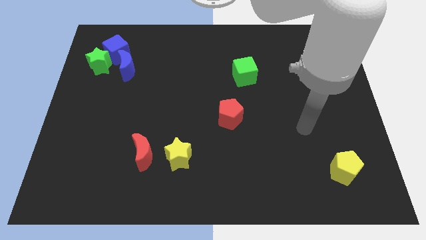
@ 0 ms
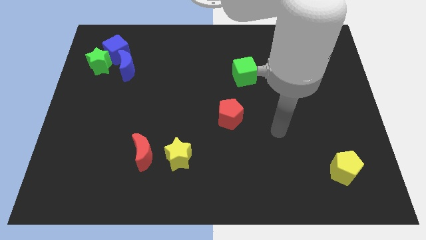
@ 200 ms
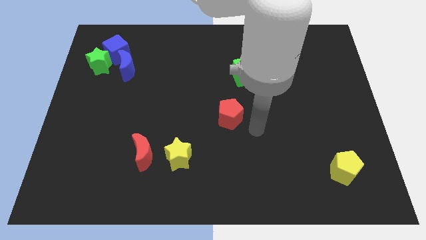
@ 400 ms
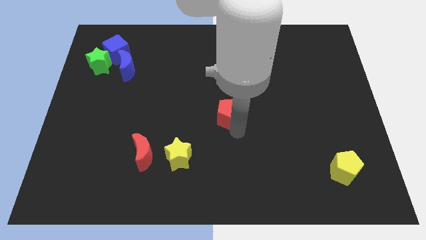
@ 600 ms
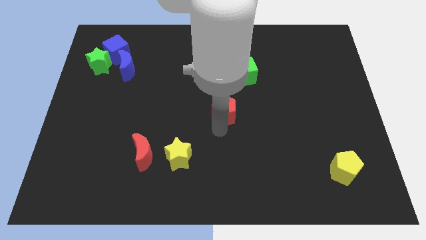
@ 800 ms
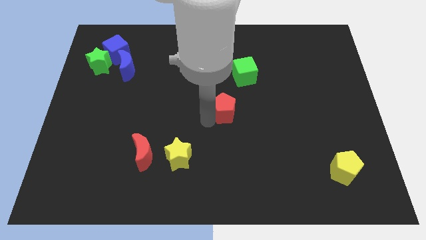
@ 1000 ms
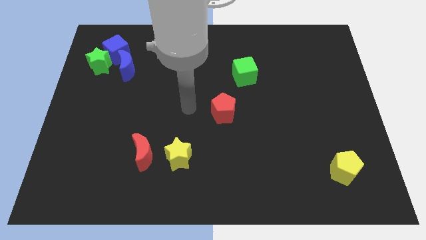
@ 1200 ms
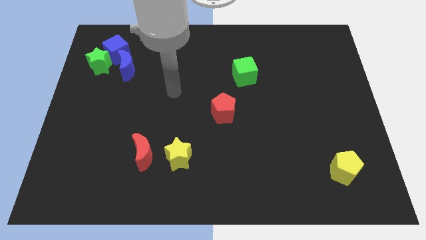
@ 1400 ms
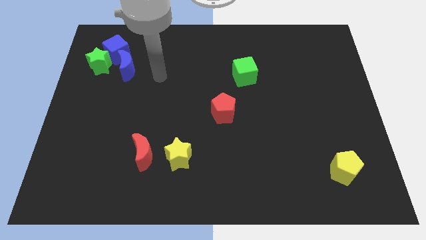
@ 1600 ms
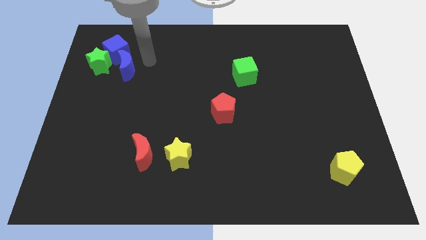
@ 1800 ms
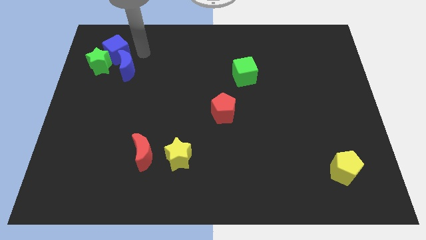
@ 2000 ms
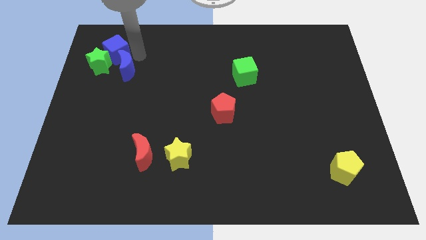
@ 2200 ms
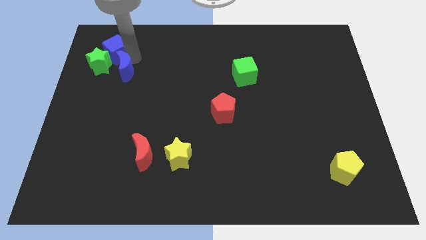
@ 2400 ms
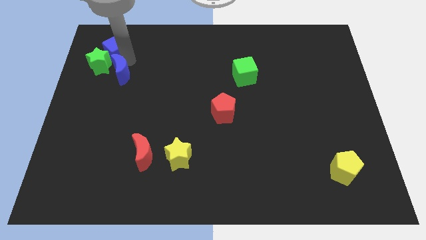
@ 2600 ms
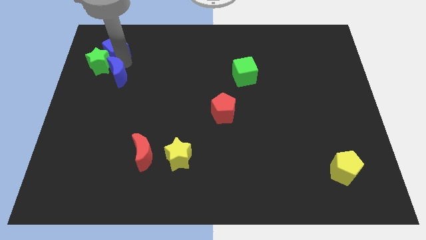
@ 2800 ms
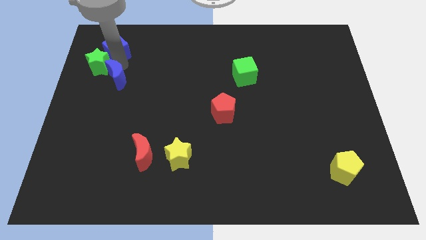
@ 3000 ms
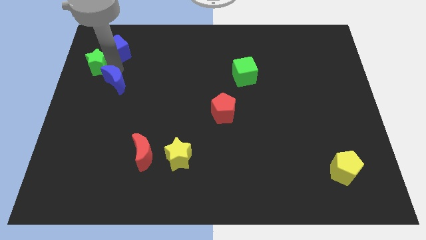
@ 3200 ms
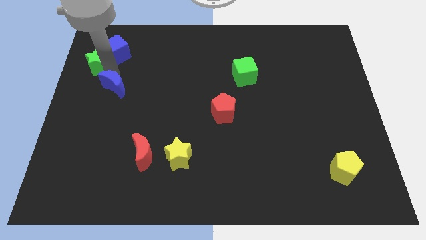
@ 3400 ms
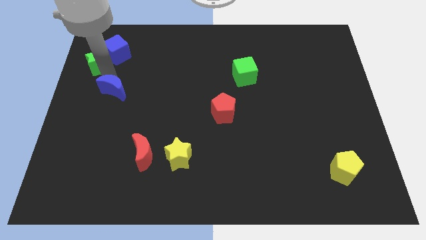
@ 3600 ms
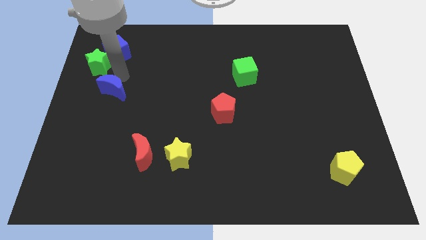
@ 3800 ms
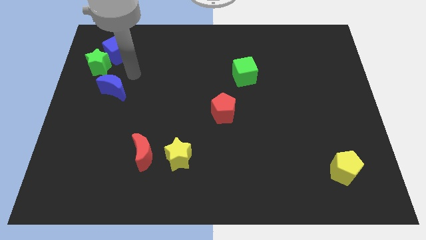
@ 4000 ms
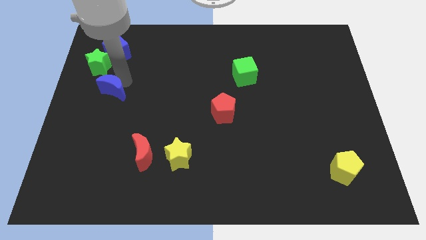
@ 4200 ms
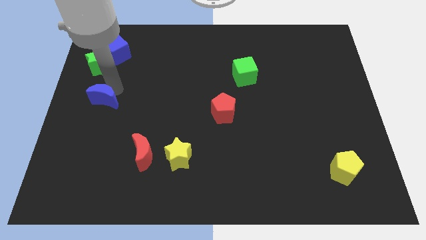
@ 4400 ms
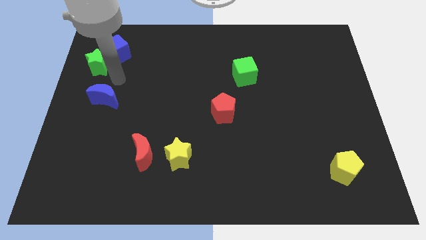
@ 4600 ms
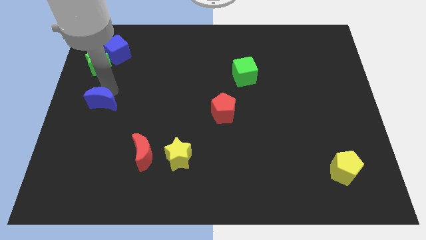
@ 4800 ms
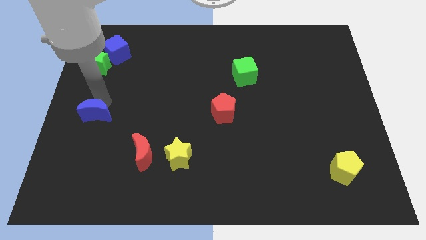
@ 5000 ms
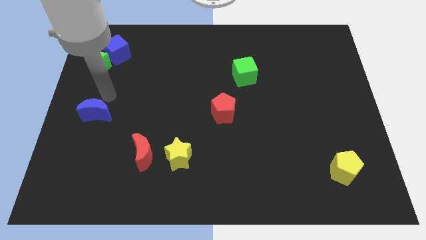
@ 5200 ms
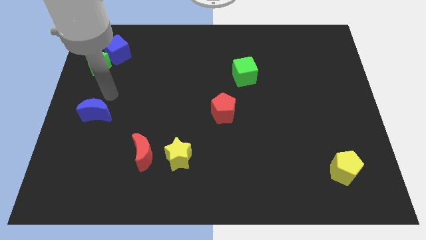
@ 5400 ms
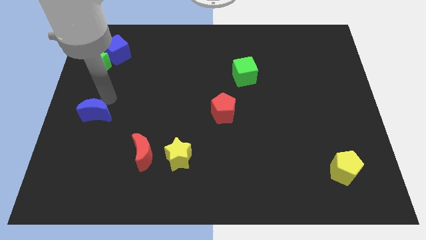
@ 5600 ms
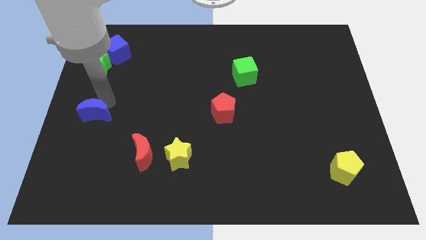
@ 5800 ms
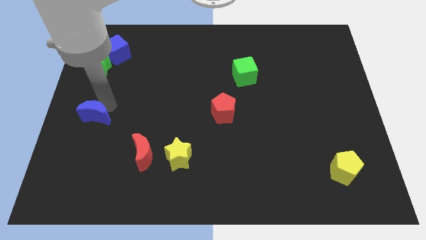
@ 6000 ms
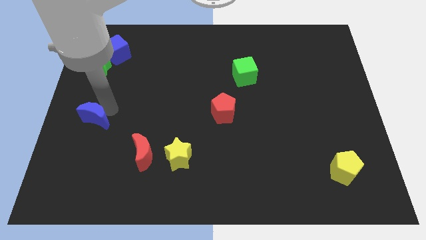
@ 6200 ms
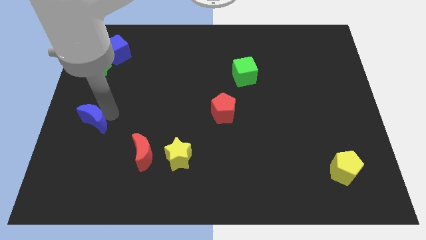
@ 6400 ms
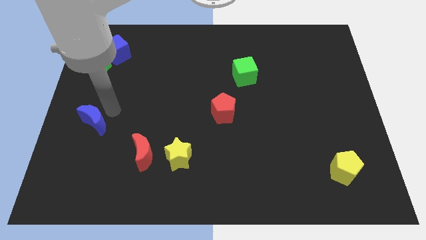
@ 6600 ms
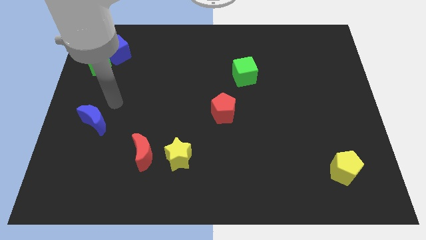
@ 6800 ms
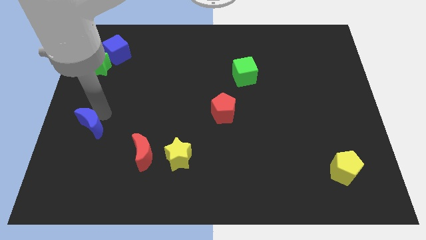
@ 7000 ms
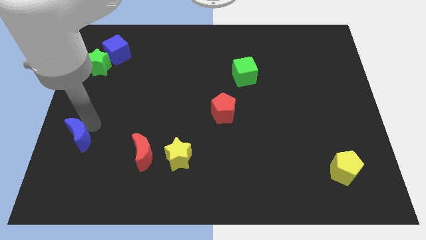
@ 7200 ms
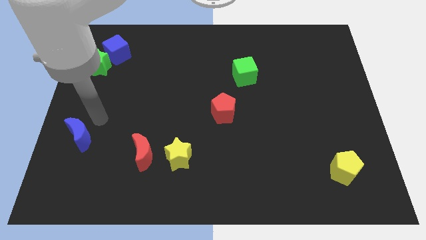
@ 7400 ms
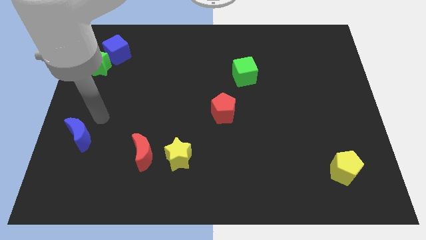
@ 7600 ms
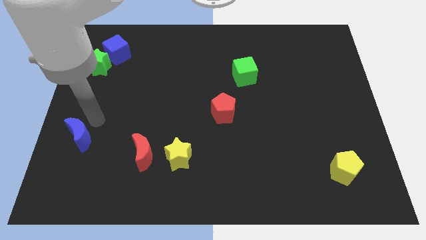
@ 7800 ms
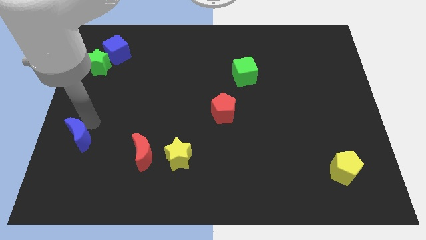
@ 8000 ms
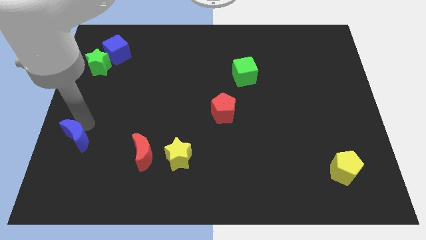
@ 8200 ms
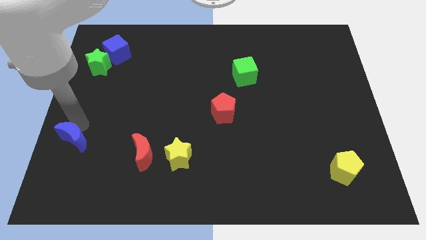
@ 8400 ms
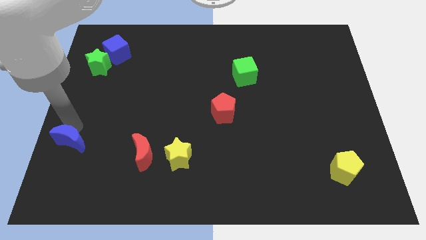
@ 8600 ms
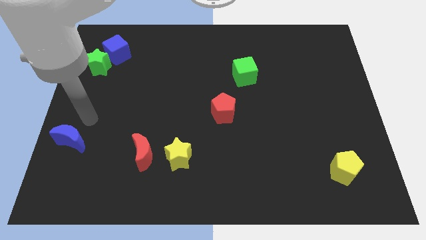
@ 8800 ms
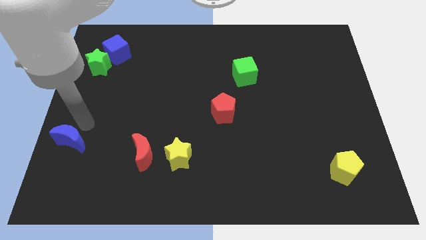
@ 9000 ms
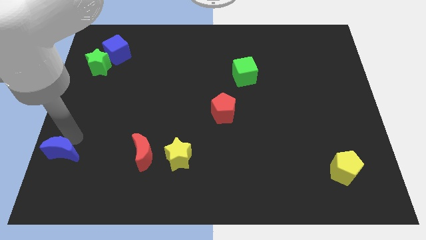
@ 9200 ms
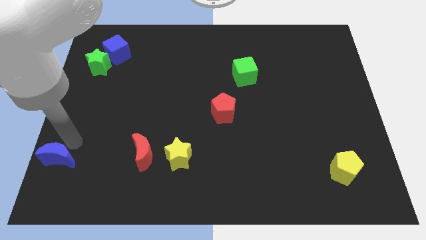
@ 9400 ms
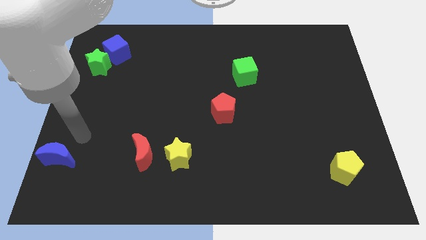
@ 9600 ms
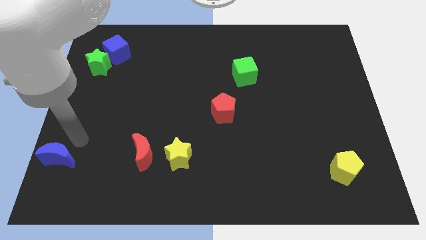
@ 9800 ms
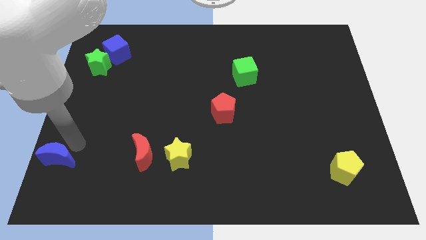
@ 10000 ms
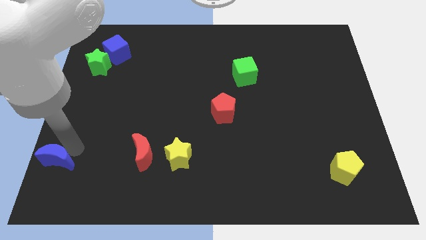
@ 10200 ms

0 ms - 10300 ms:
move the blue moon to the bottom left corner
